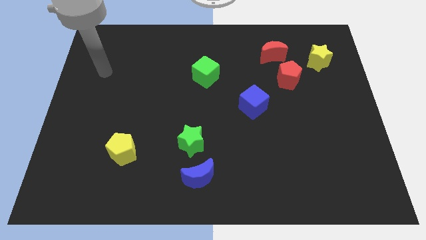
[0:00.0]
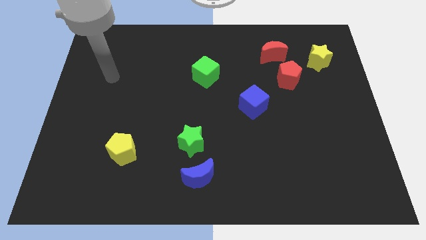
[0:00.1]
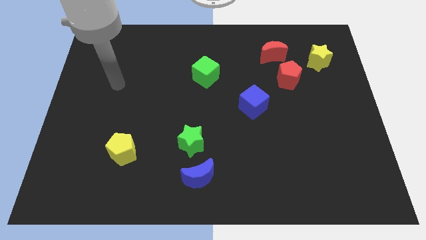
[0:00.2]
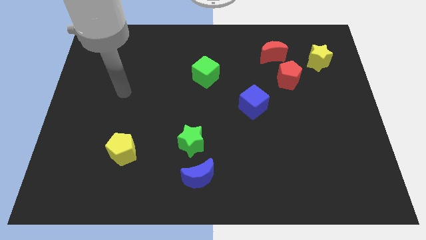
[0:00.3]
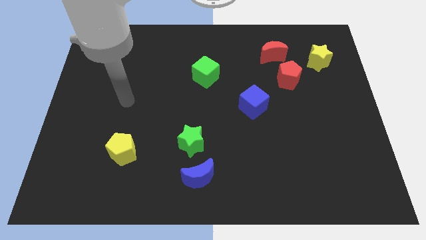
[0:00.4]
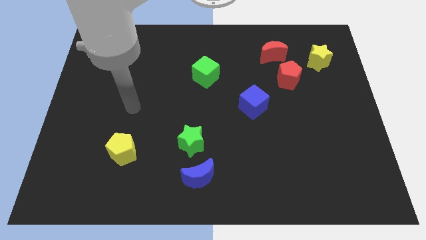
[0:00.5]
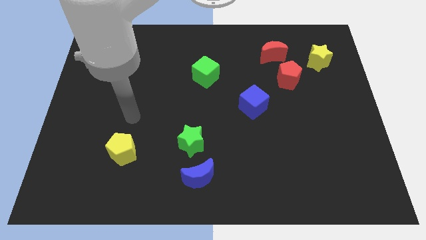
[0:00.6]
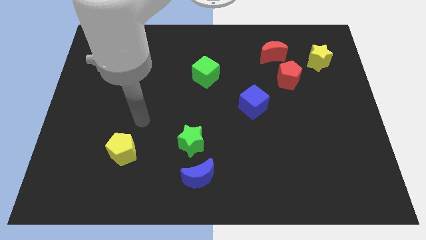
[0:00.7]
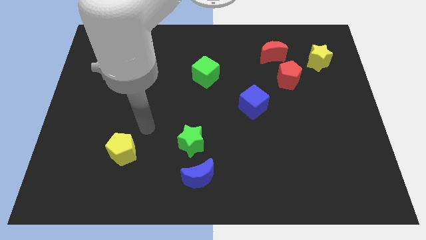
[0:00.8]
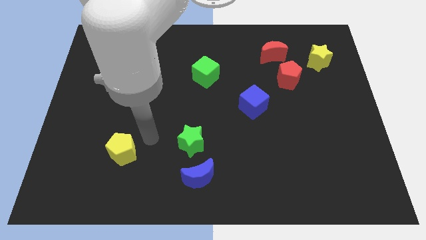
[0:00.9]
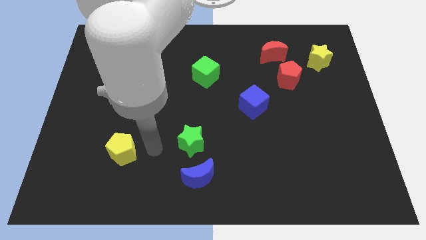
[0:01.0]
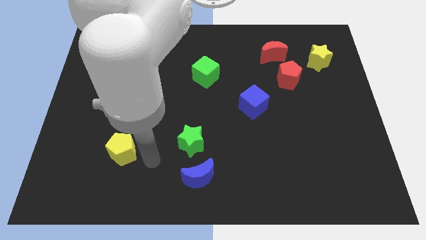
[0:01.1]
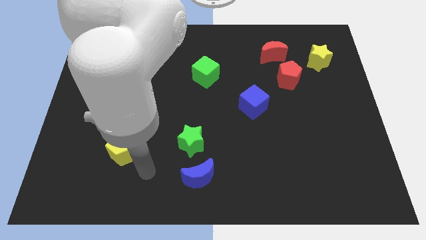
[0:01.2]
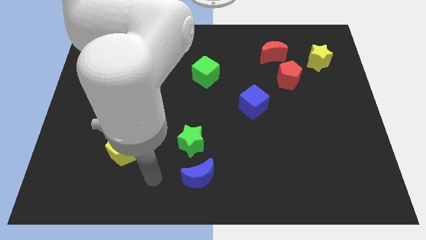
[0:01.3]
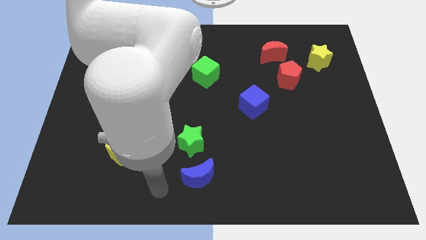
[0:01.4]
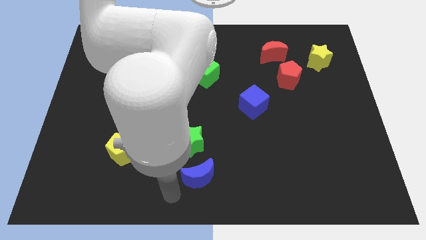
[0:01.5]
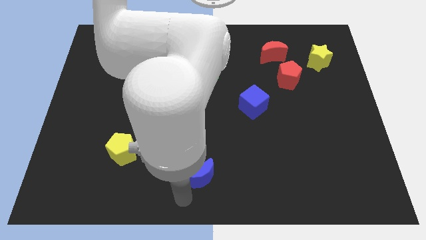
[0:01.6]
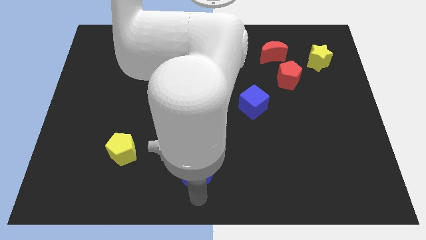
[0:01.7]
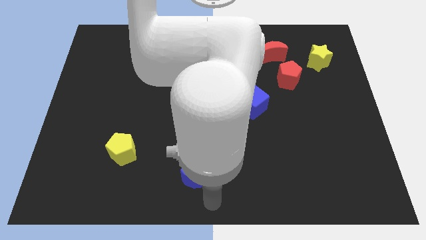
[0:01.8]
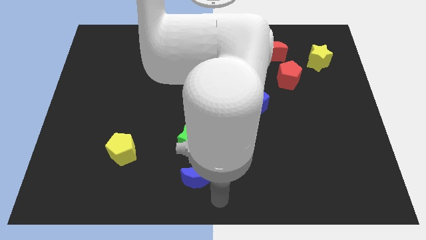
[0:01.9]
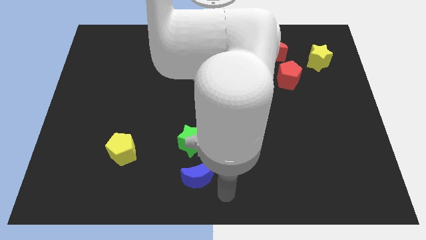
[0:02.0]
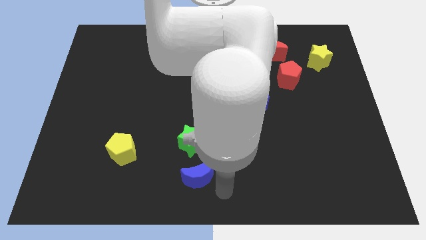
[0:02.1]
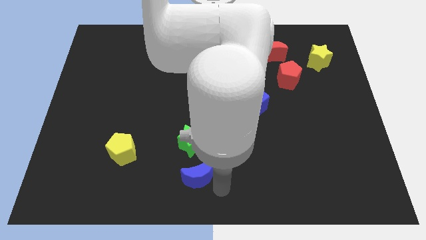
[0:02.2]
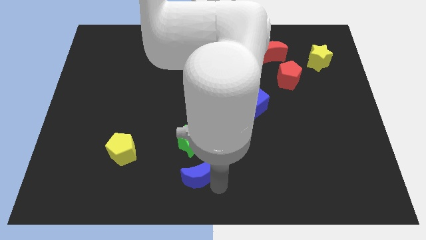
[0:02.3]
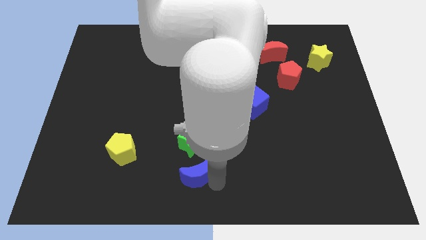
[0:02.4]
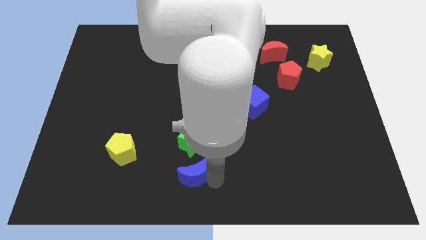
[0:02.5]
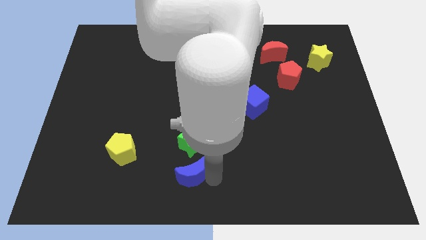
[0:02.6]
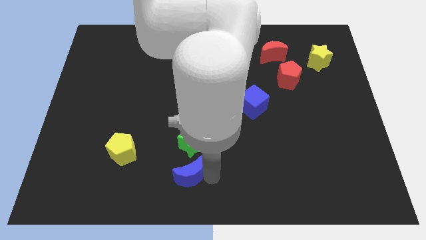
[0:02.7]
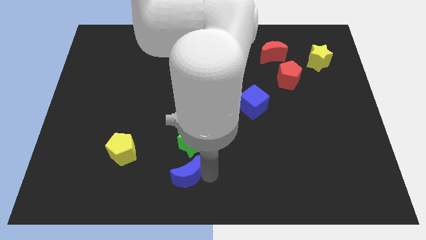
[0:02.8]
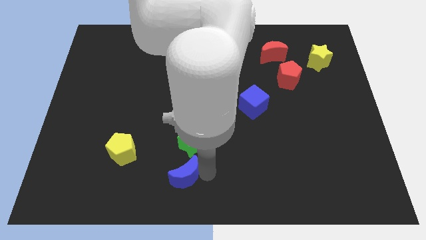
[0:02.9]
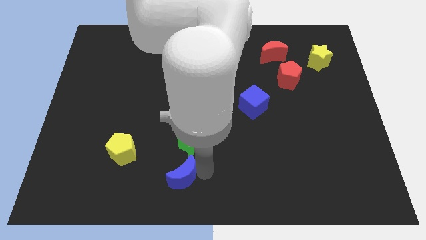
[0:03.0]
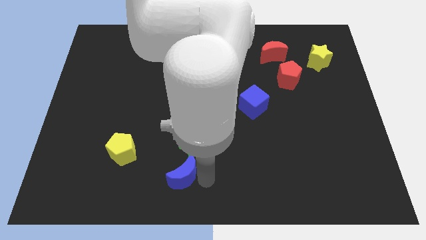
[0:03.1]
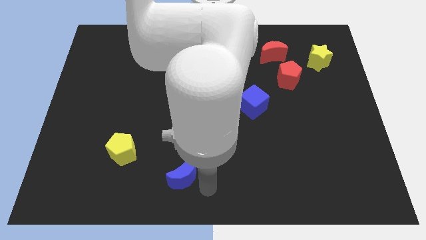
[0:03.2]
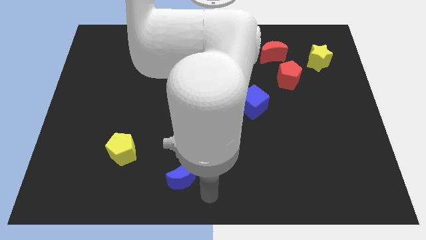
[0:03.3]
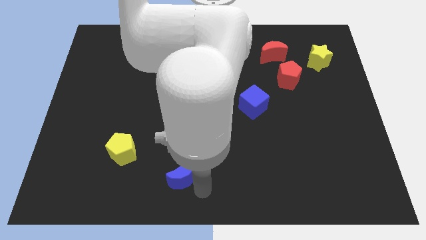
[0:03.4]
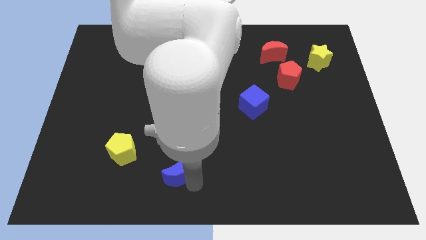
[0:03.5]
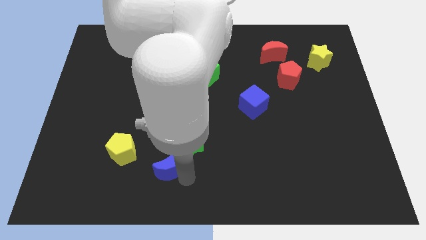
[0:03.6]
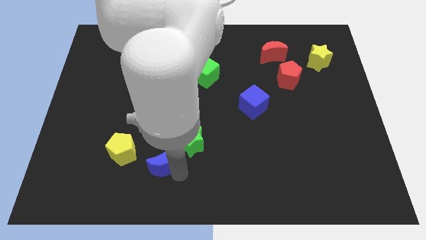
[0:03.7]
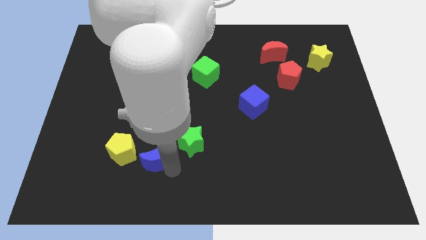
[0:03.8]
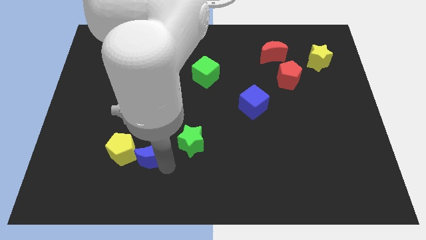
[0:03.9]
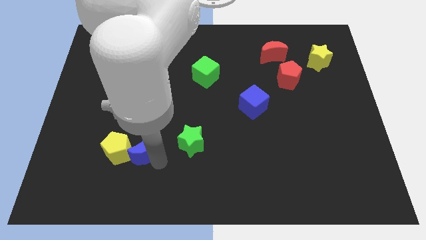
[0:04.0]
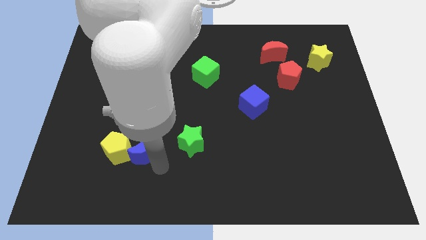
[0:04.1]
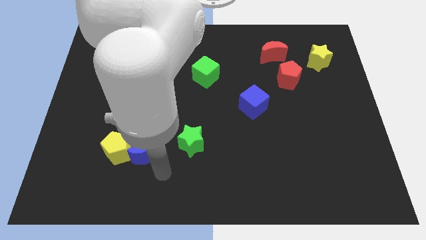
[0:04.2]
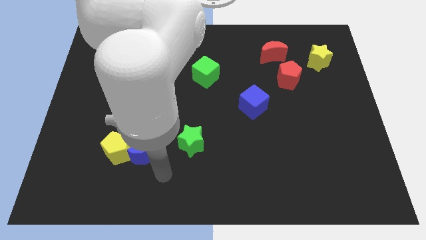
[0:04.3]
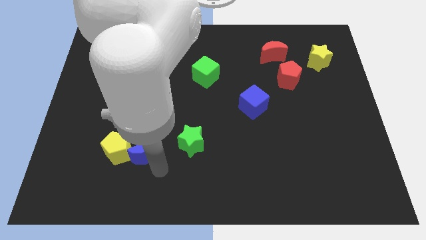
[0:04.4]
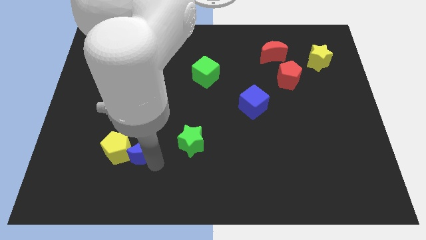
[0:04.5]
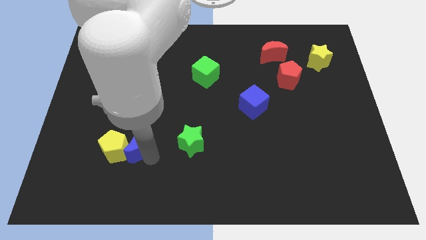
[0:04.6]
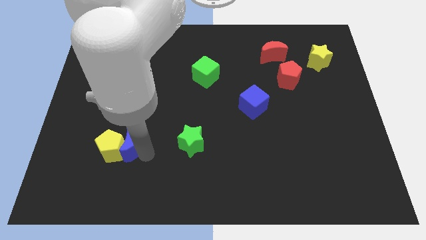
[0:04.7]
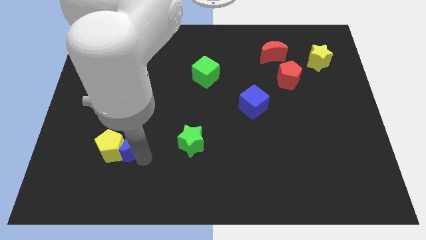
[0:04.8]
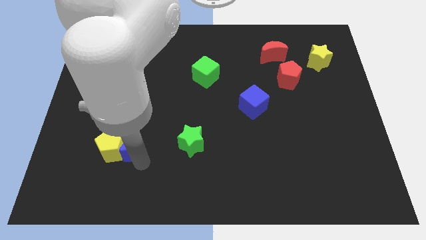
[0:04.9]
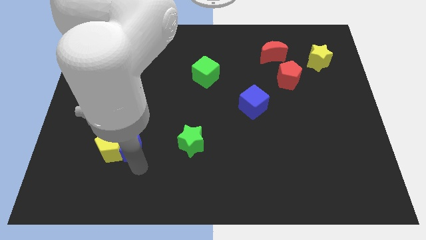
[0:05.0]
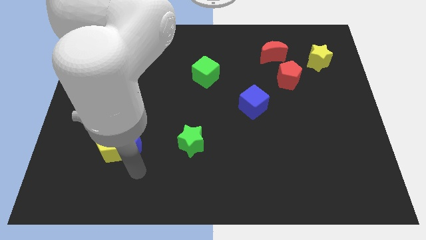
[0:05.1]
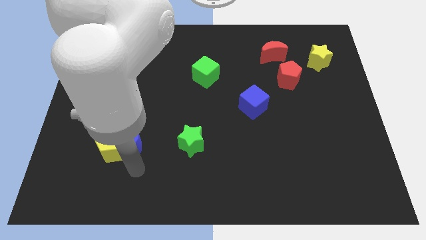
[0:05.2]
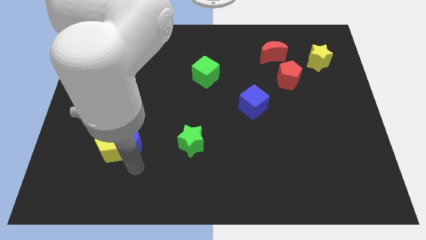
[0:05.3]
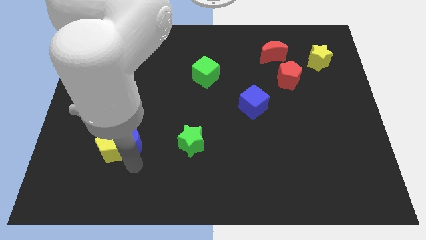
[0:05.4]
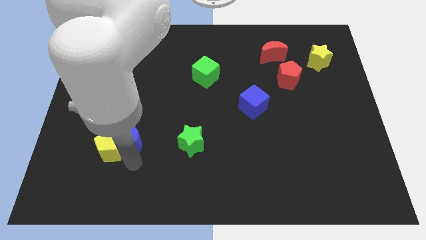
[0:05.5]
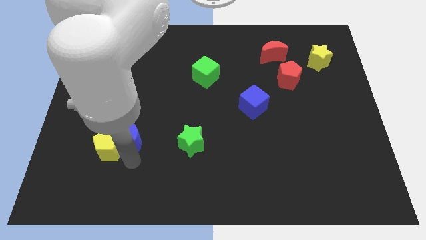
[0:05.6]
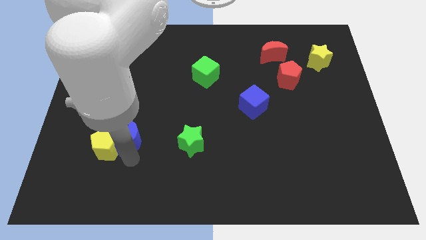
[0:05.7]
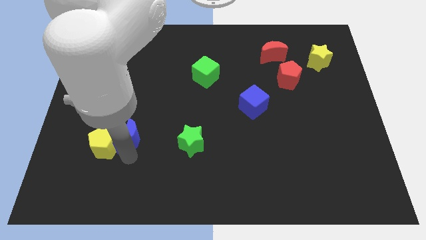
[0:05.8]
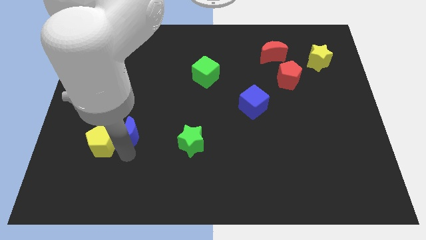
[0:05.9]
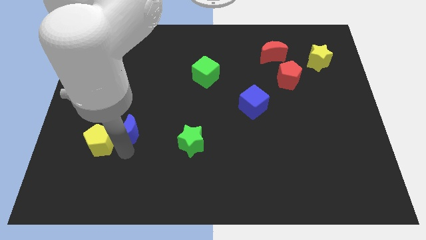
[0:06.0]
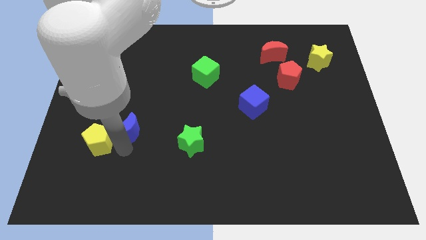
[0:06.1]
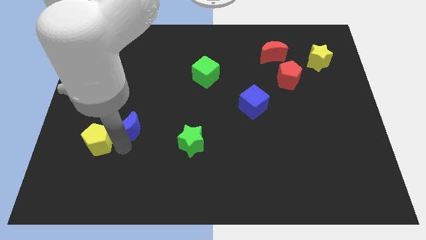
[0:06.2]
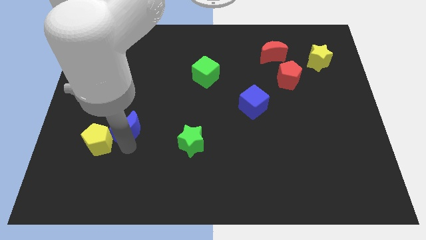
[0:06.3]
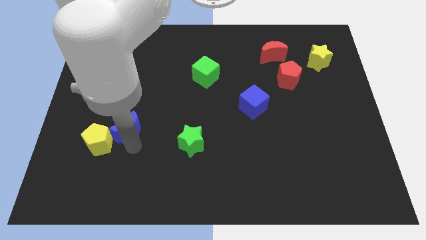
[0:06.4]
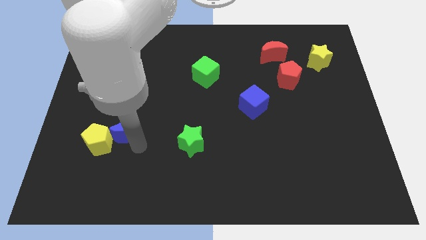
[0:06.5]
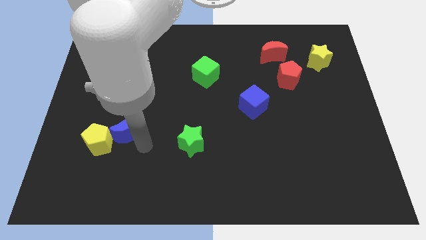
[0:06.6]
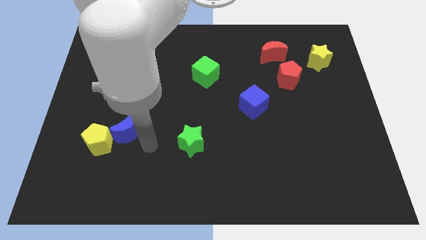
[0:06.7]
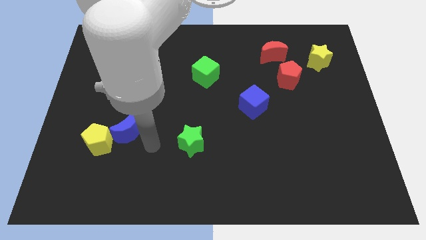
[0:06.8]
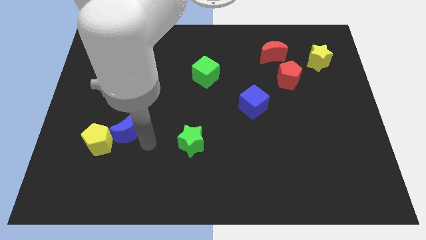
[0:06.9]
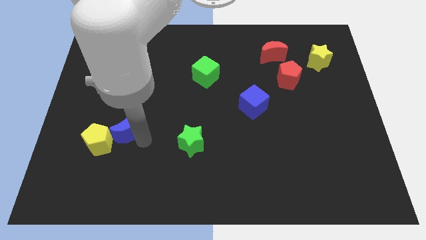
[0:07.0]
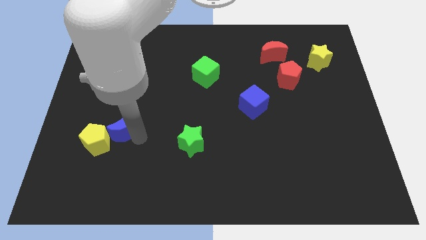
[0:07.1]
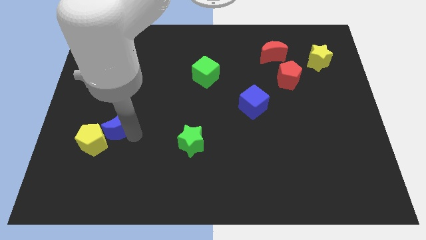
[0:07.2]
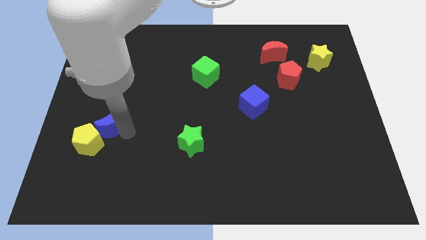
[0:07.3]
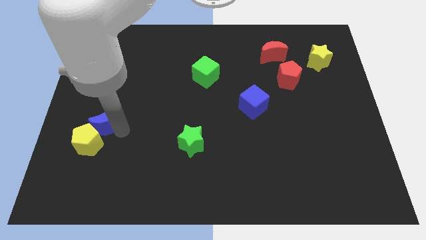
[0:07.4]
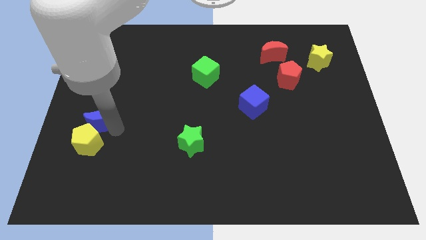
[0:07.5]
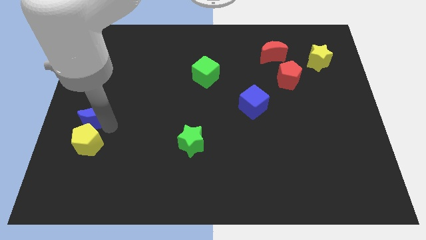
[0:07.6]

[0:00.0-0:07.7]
push the blue moon to the left side
